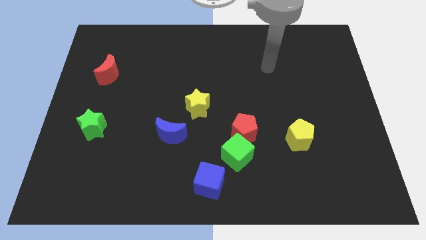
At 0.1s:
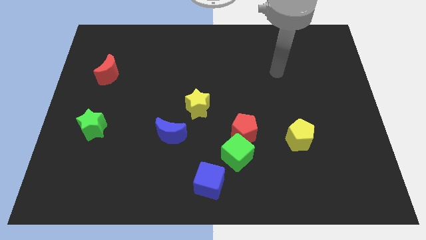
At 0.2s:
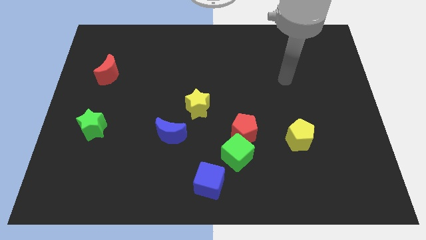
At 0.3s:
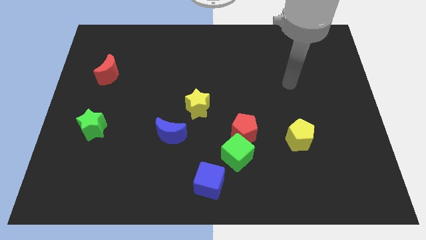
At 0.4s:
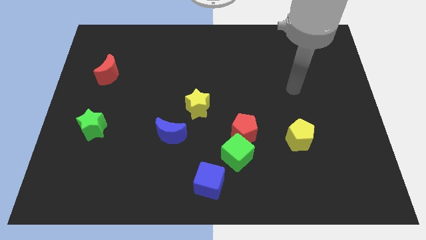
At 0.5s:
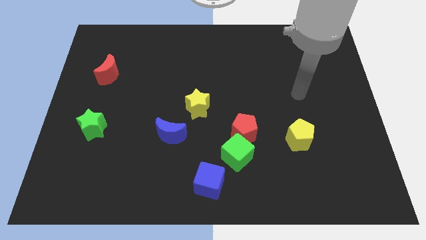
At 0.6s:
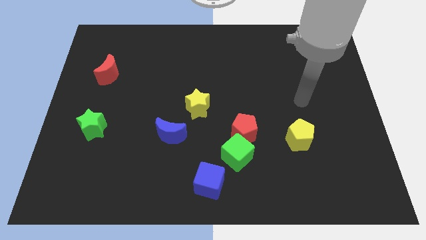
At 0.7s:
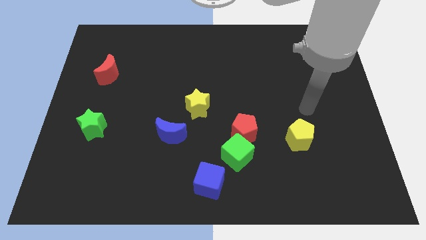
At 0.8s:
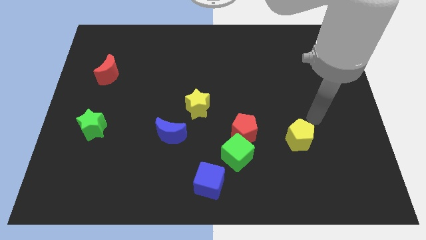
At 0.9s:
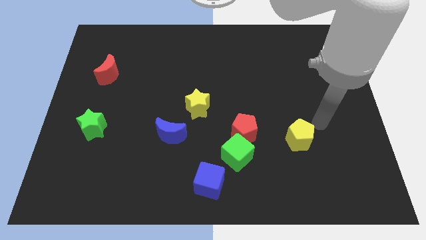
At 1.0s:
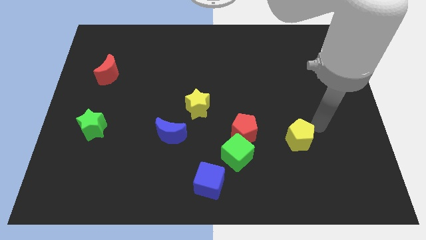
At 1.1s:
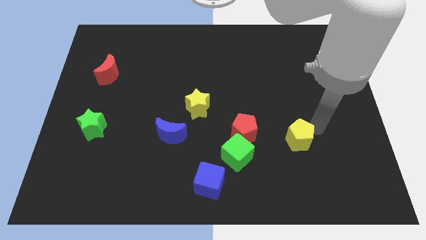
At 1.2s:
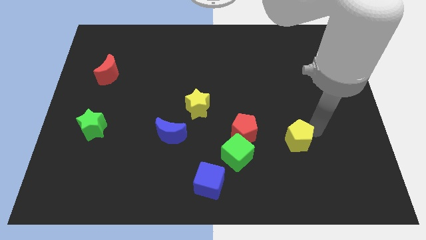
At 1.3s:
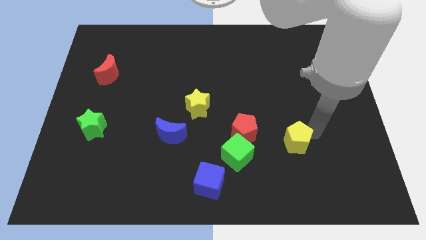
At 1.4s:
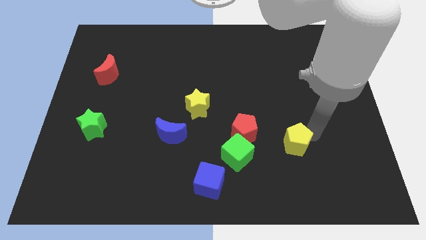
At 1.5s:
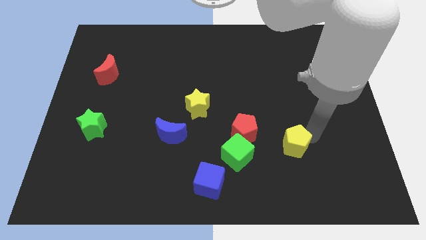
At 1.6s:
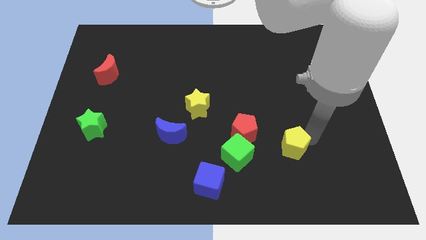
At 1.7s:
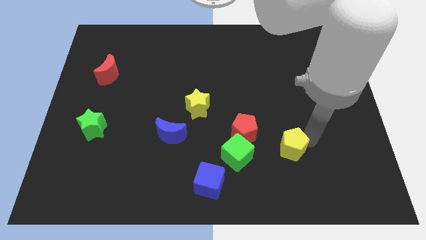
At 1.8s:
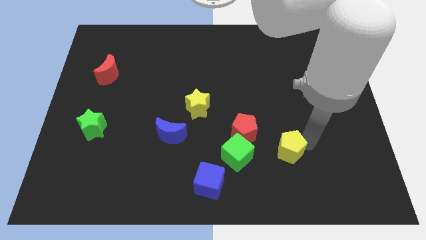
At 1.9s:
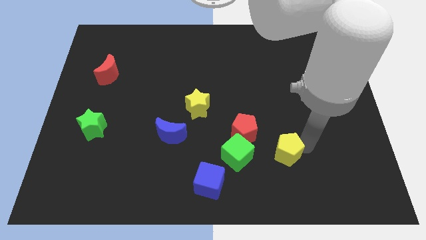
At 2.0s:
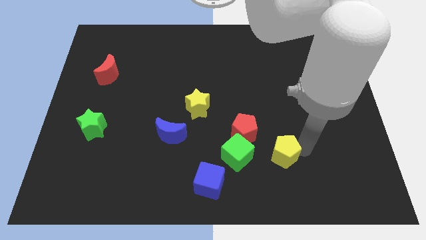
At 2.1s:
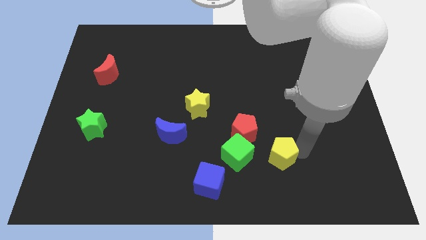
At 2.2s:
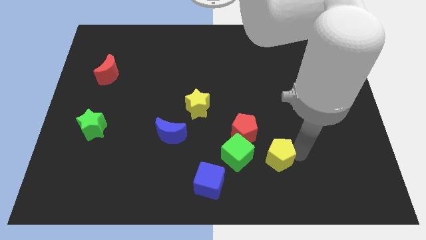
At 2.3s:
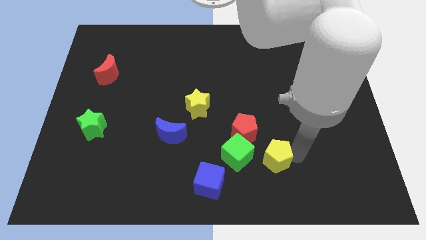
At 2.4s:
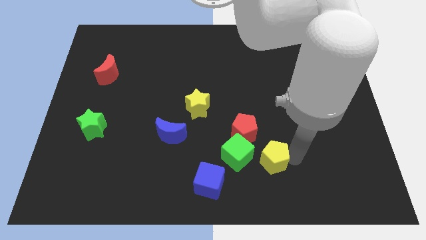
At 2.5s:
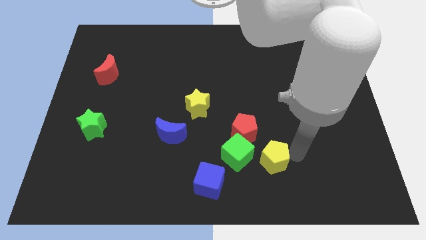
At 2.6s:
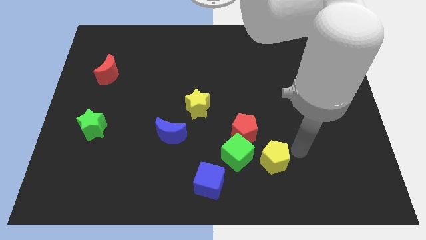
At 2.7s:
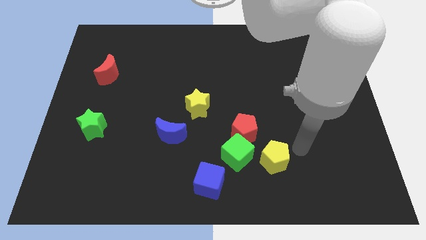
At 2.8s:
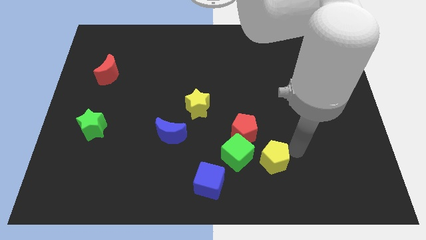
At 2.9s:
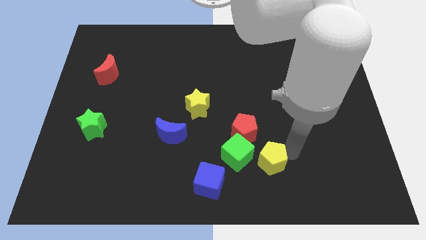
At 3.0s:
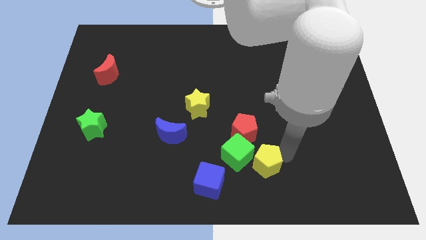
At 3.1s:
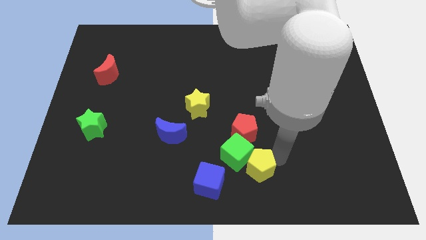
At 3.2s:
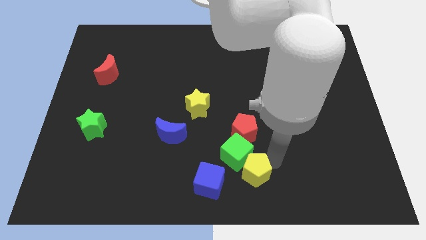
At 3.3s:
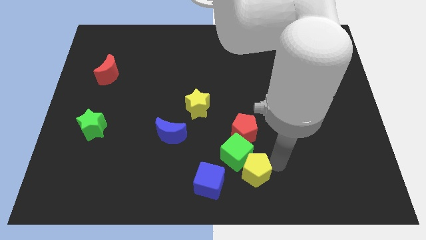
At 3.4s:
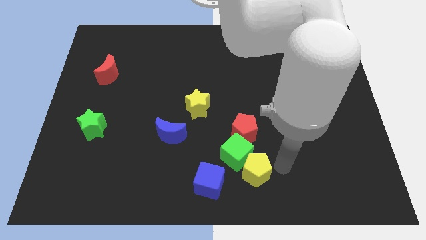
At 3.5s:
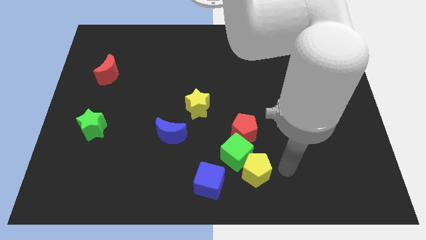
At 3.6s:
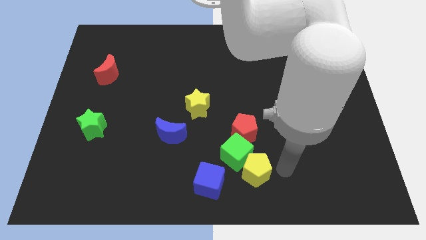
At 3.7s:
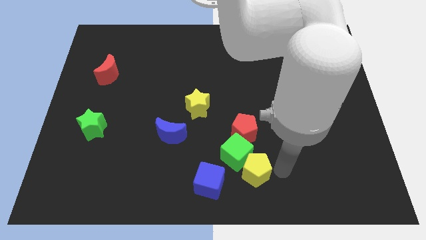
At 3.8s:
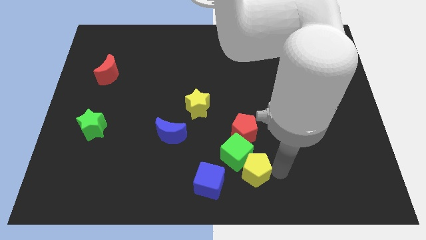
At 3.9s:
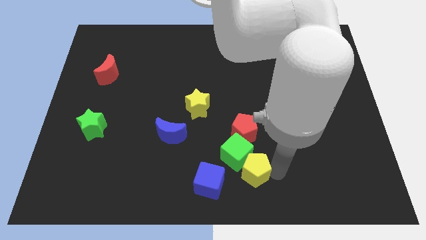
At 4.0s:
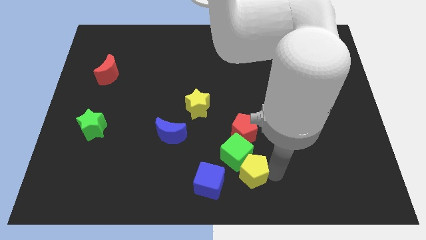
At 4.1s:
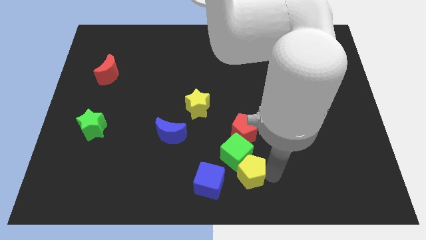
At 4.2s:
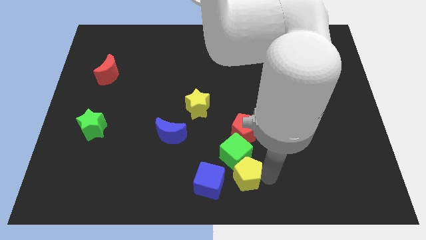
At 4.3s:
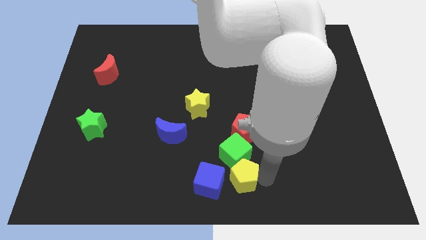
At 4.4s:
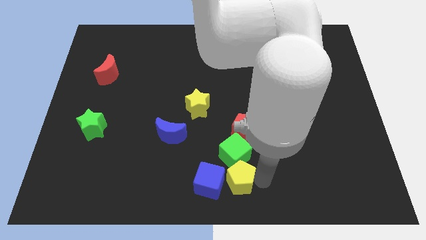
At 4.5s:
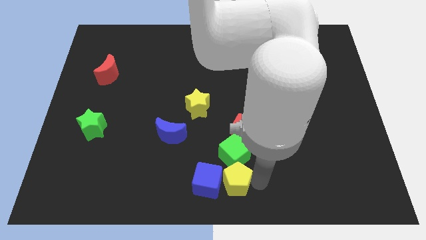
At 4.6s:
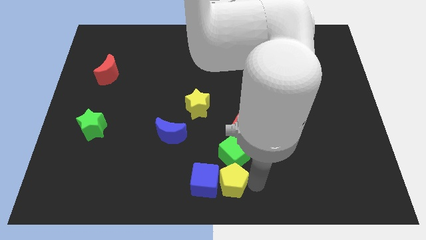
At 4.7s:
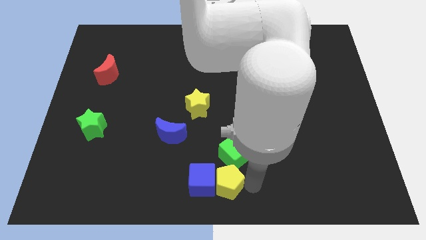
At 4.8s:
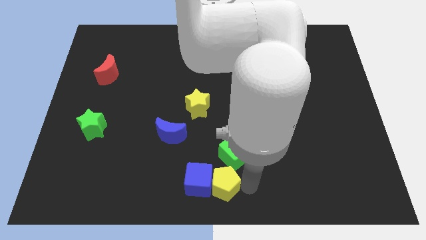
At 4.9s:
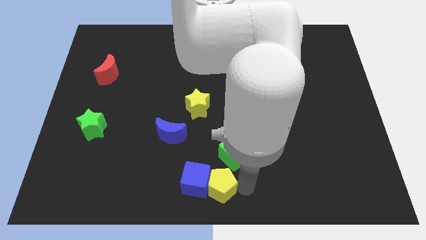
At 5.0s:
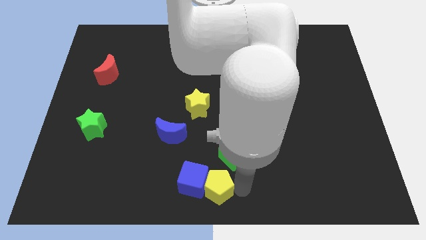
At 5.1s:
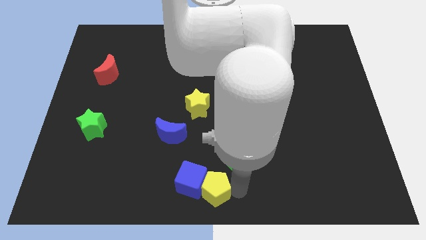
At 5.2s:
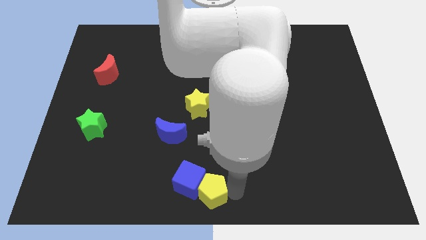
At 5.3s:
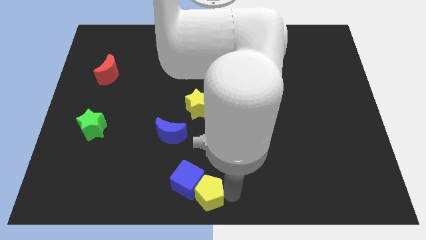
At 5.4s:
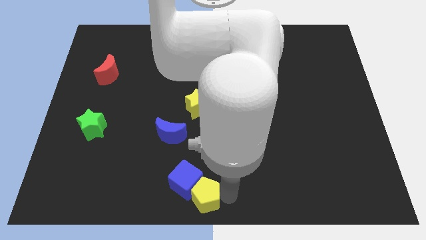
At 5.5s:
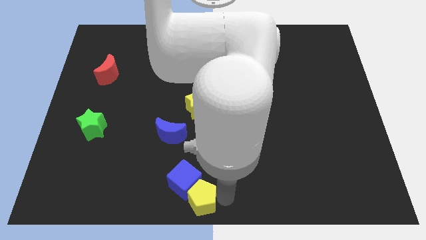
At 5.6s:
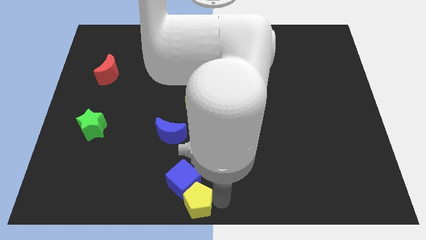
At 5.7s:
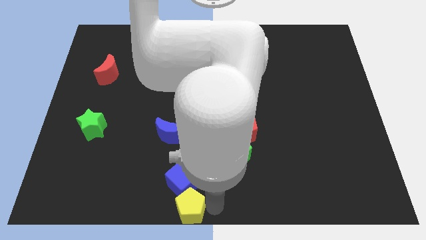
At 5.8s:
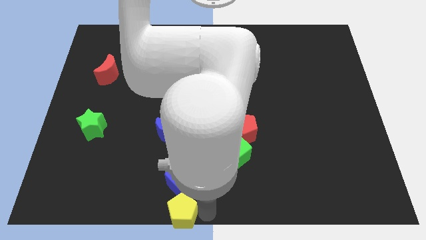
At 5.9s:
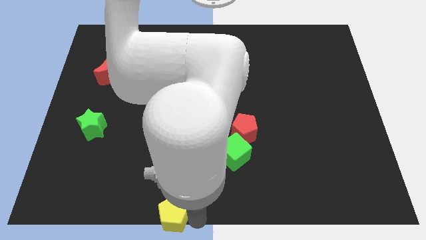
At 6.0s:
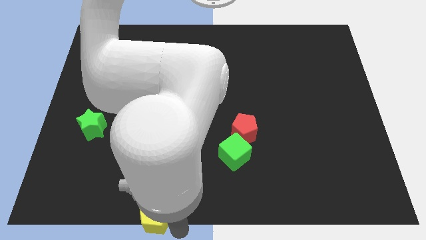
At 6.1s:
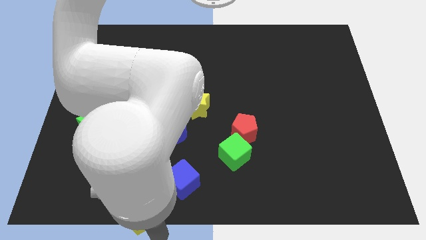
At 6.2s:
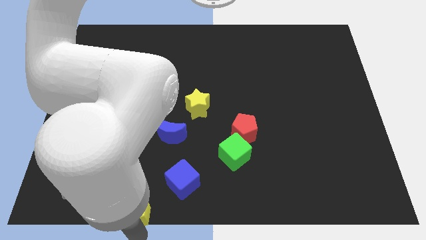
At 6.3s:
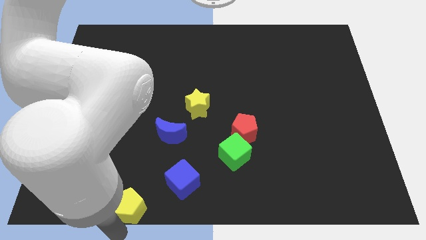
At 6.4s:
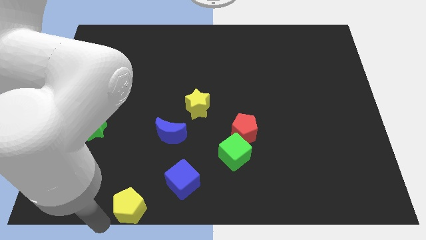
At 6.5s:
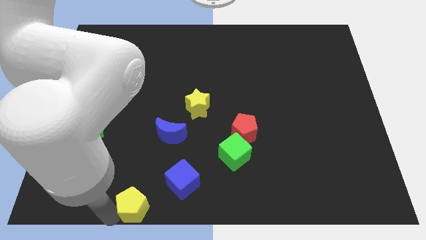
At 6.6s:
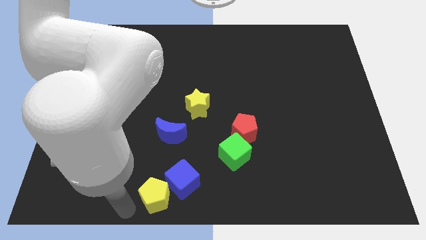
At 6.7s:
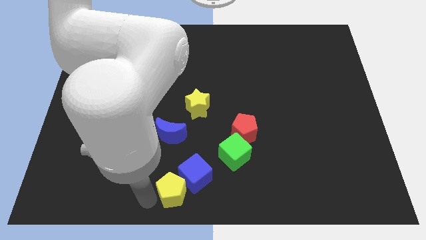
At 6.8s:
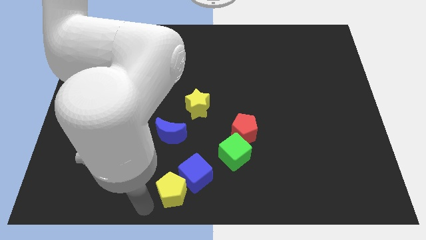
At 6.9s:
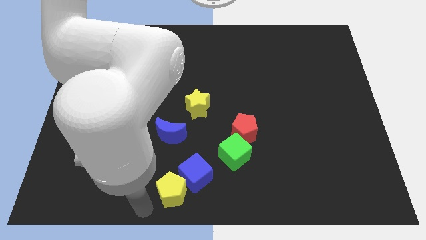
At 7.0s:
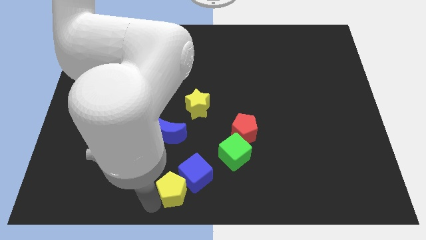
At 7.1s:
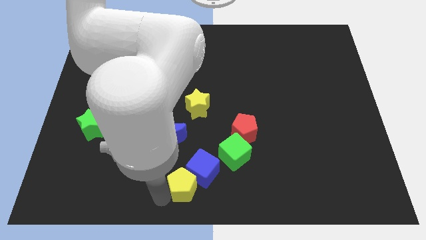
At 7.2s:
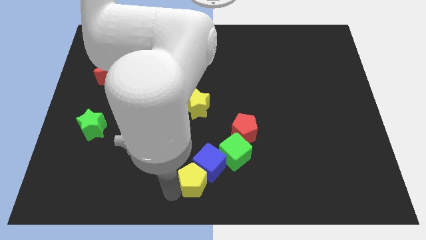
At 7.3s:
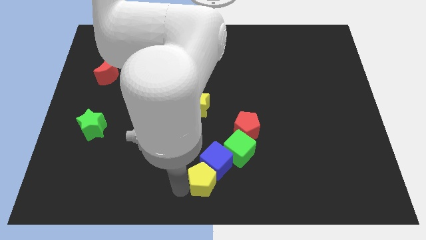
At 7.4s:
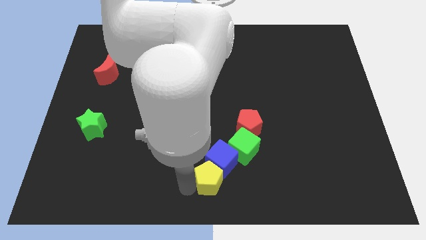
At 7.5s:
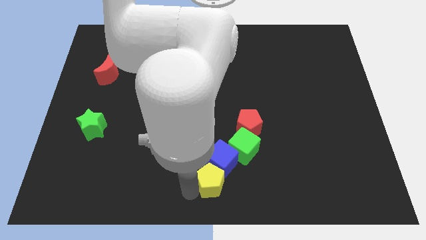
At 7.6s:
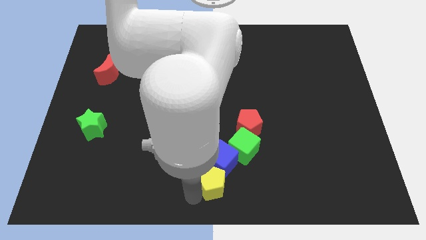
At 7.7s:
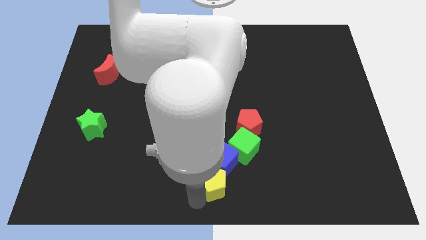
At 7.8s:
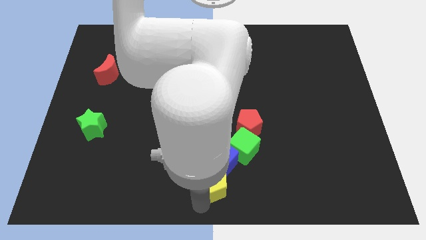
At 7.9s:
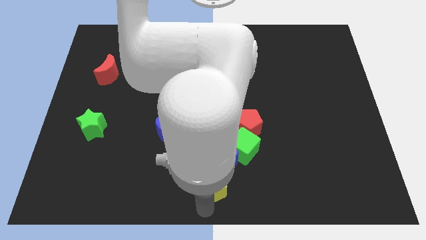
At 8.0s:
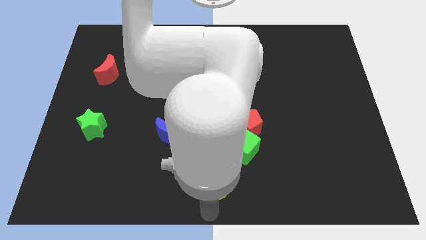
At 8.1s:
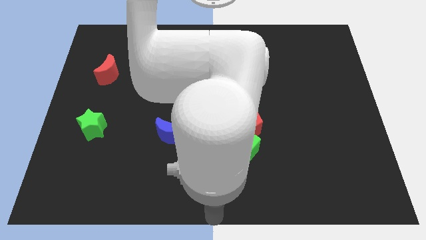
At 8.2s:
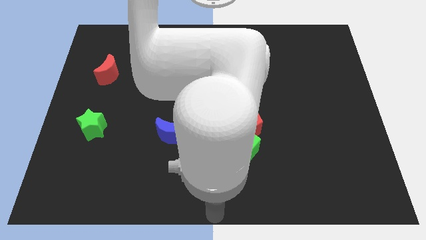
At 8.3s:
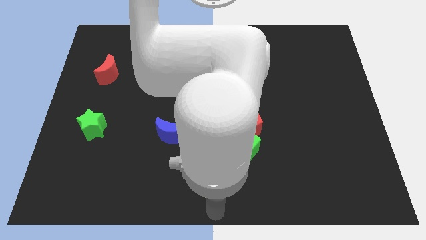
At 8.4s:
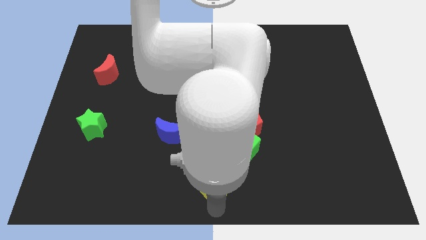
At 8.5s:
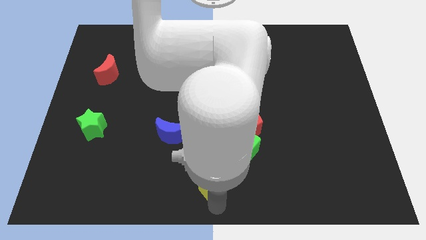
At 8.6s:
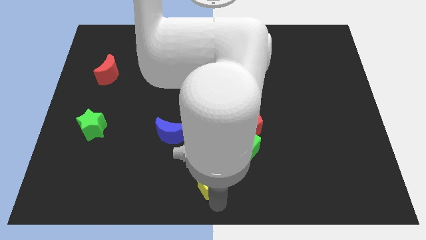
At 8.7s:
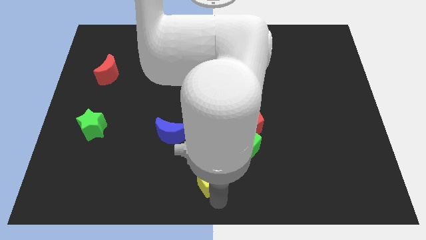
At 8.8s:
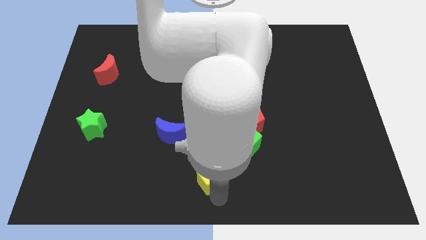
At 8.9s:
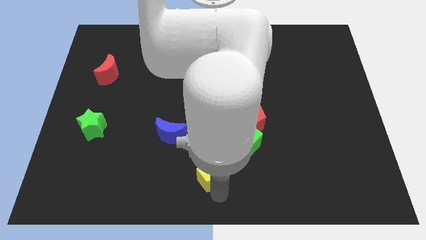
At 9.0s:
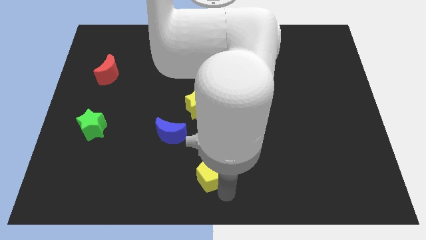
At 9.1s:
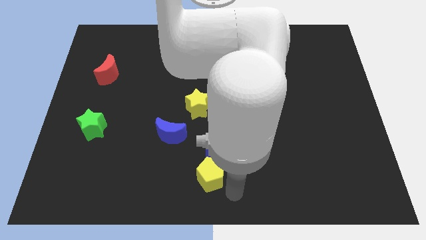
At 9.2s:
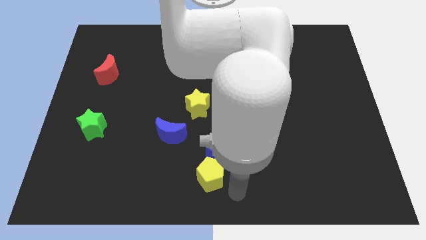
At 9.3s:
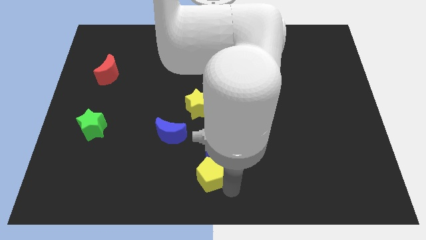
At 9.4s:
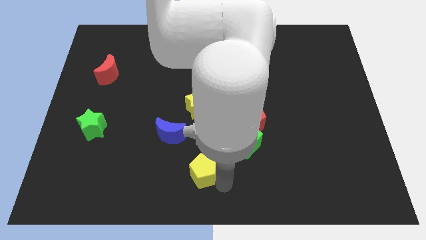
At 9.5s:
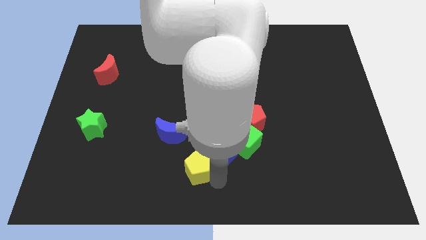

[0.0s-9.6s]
slide the yellow pentagon left
